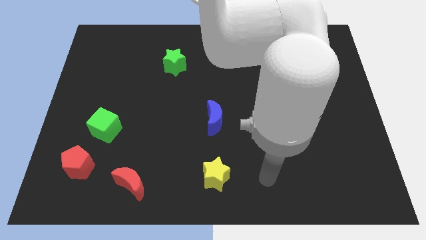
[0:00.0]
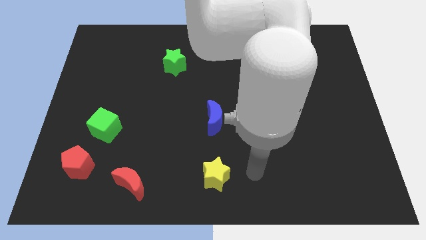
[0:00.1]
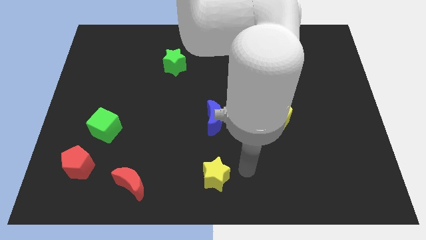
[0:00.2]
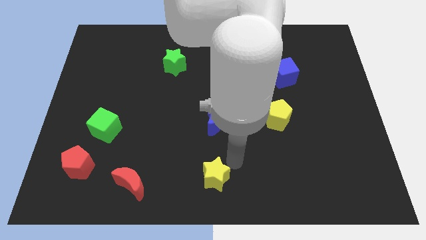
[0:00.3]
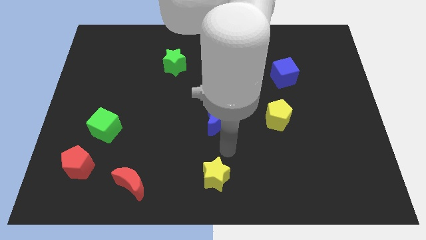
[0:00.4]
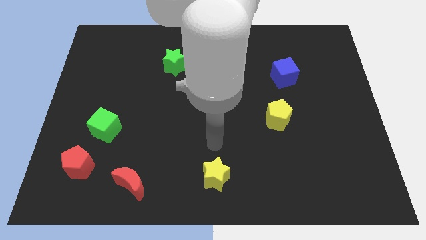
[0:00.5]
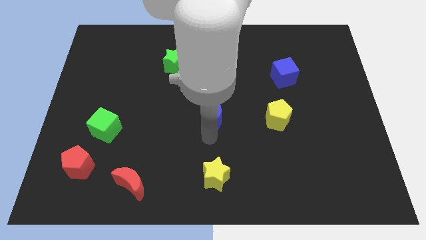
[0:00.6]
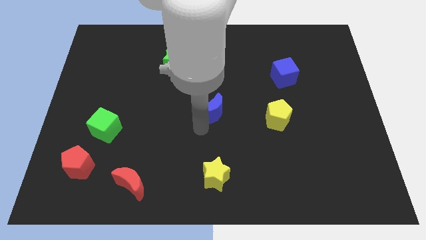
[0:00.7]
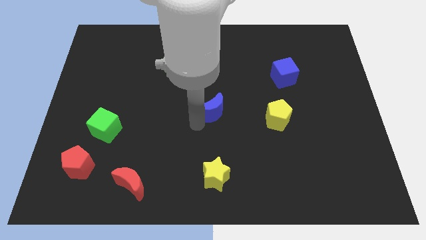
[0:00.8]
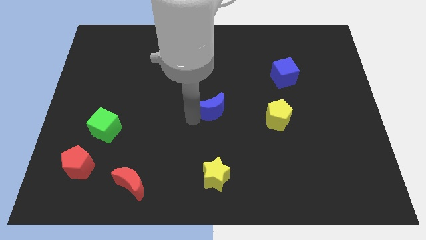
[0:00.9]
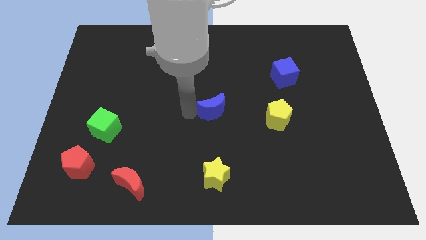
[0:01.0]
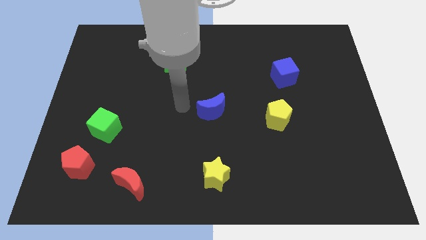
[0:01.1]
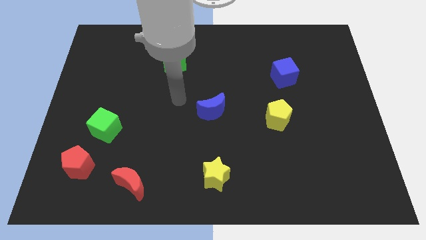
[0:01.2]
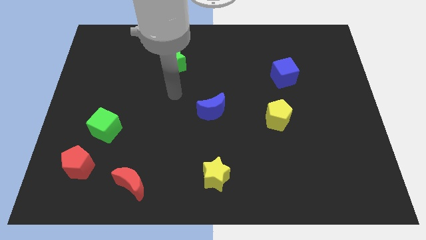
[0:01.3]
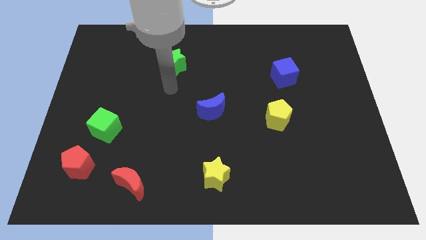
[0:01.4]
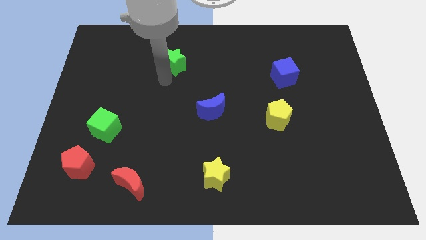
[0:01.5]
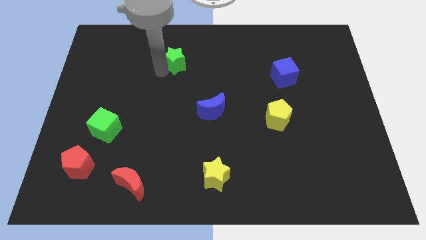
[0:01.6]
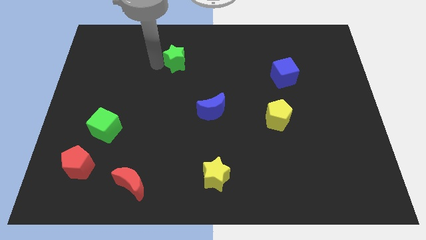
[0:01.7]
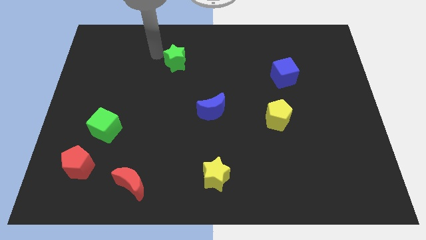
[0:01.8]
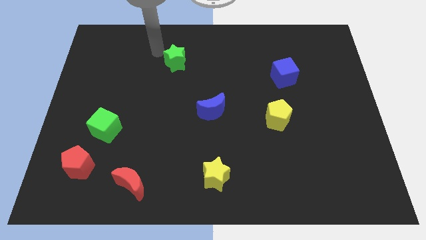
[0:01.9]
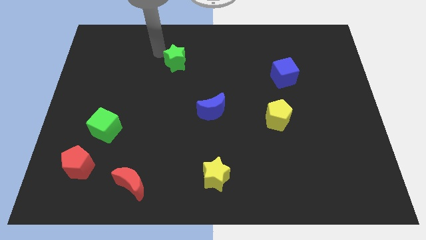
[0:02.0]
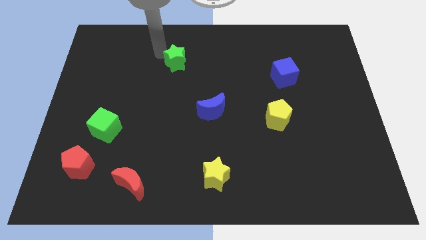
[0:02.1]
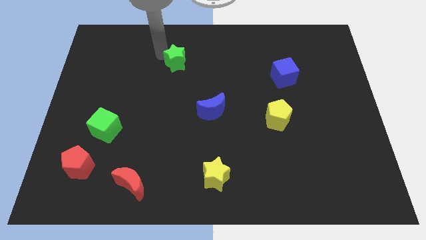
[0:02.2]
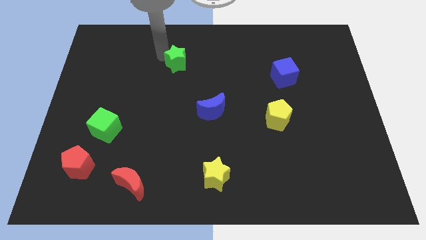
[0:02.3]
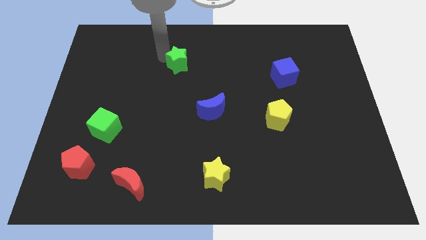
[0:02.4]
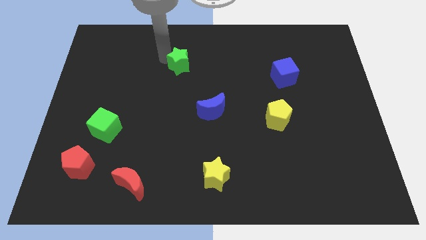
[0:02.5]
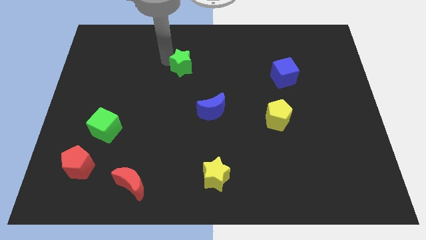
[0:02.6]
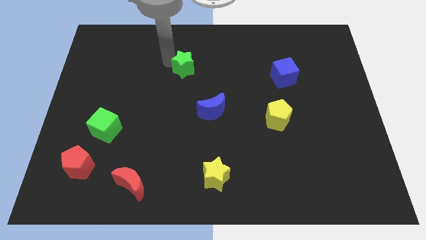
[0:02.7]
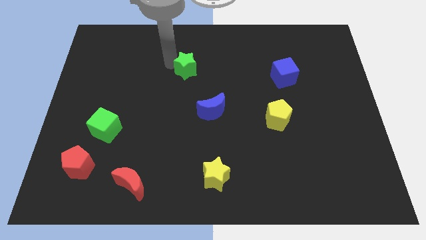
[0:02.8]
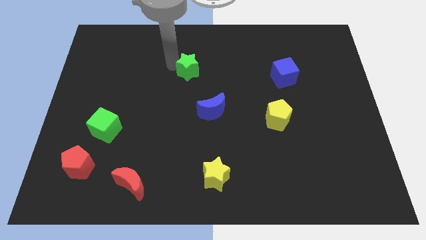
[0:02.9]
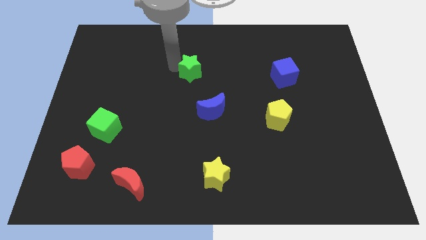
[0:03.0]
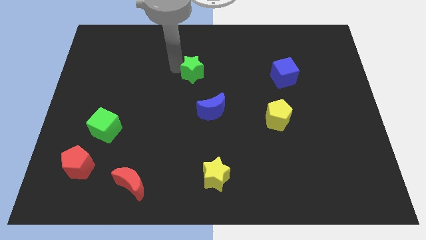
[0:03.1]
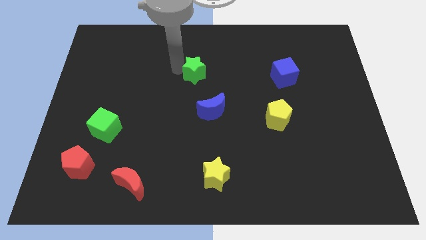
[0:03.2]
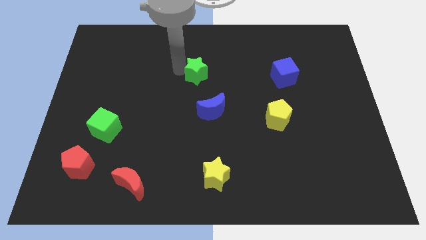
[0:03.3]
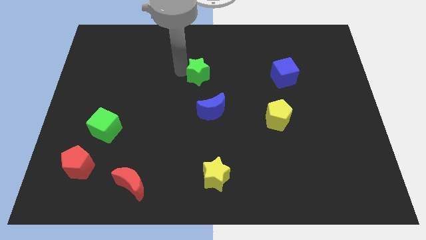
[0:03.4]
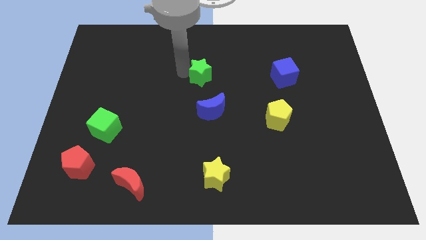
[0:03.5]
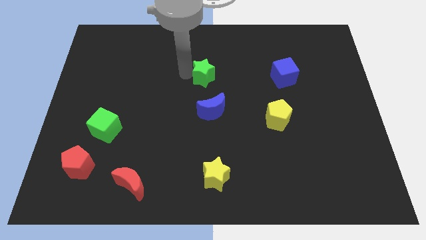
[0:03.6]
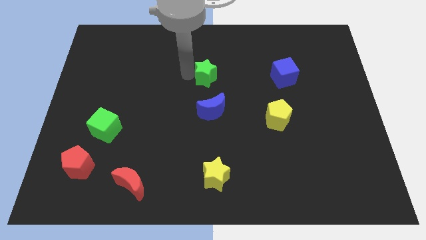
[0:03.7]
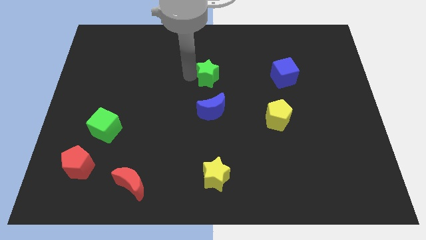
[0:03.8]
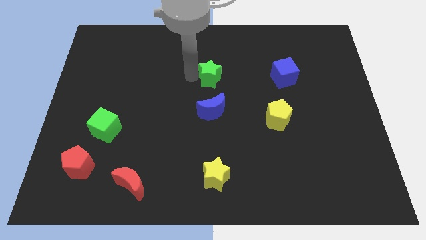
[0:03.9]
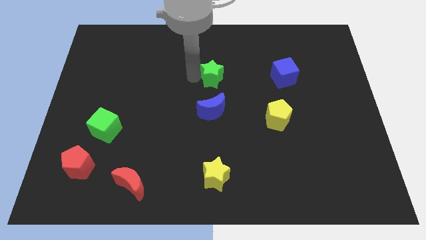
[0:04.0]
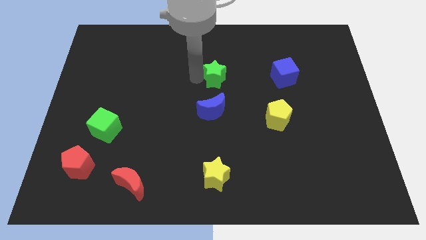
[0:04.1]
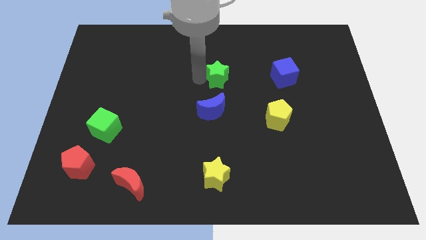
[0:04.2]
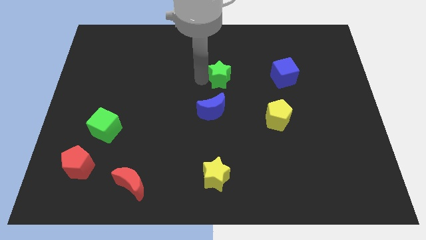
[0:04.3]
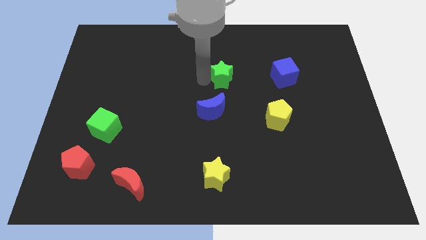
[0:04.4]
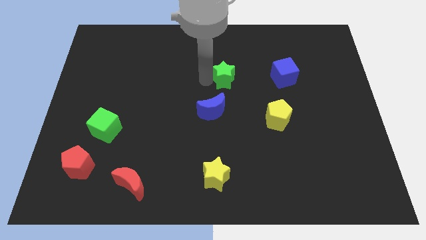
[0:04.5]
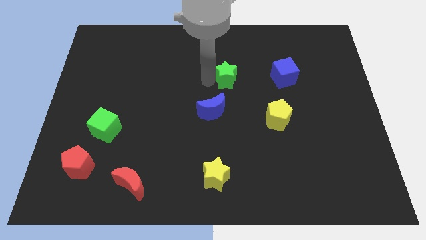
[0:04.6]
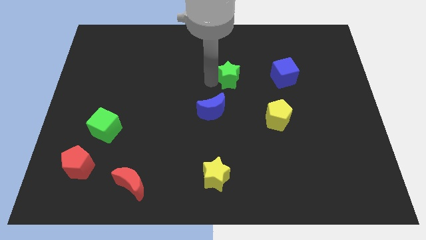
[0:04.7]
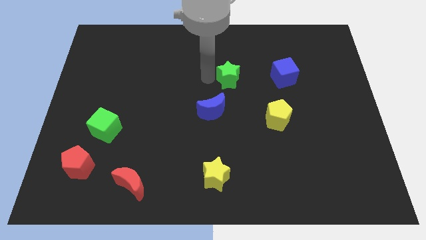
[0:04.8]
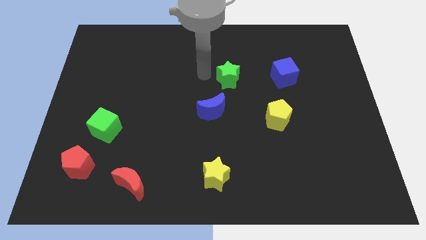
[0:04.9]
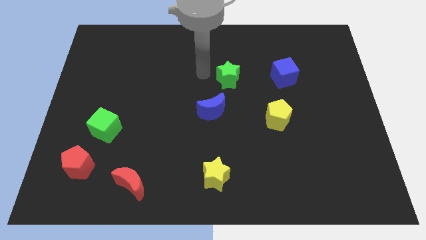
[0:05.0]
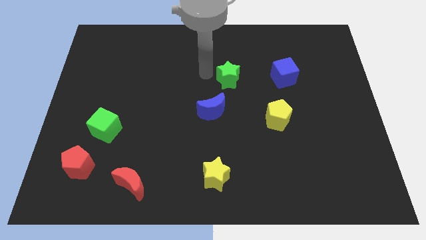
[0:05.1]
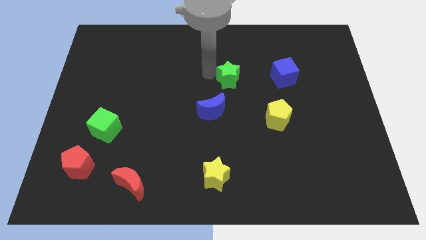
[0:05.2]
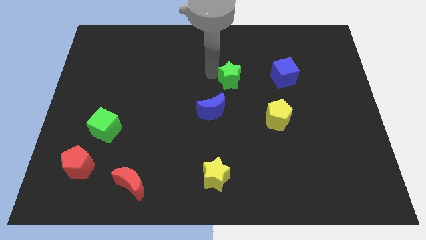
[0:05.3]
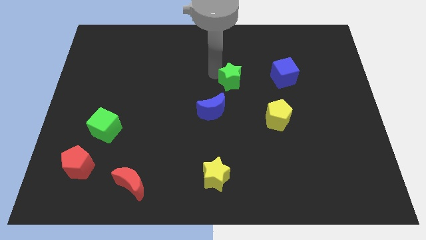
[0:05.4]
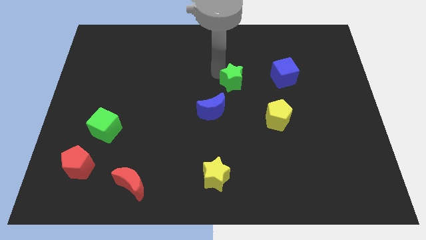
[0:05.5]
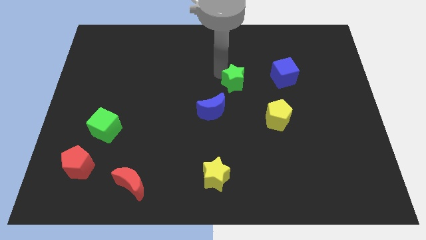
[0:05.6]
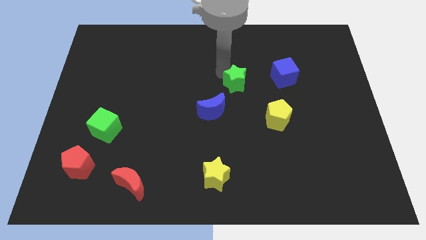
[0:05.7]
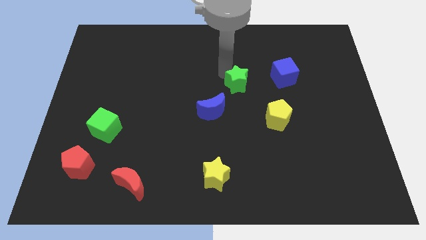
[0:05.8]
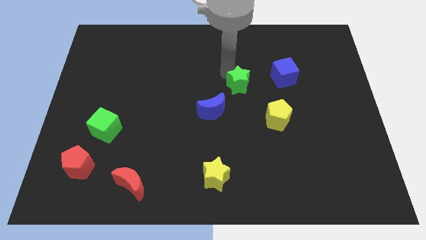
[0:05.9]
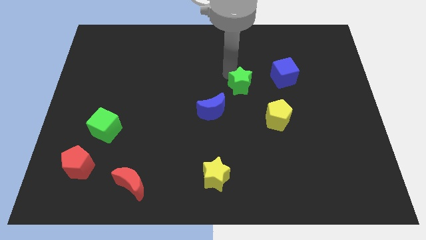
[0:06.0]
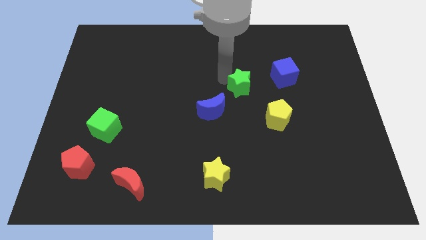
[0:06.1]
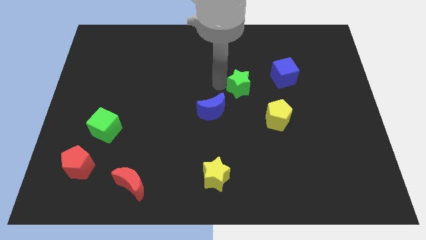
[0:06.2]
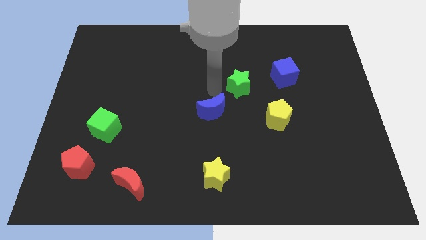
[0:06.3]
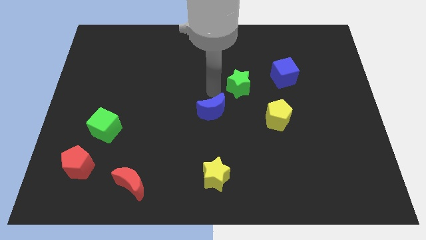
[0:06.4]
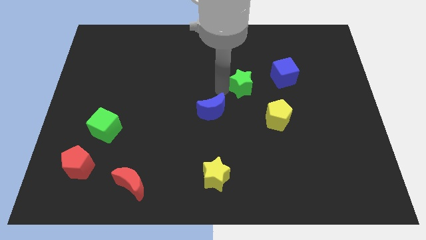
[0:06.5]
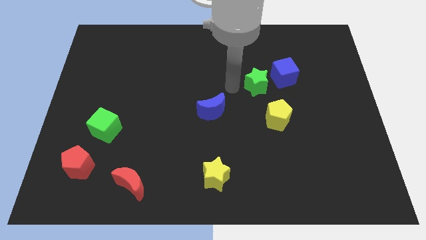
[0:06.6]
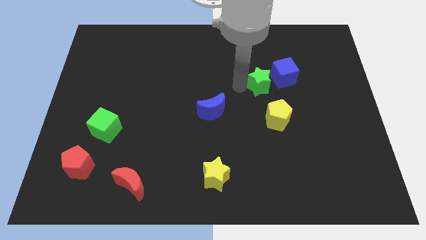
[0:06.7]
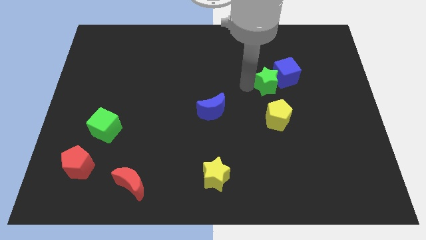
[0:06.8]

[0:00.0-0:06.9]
move the green star towards the blue cube

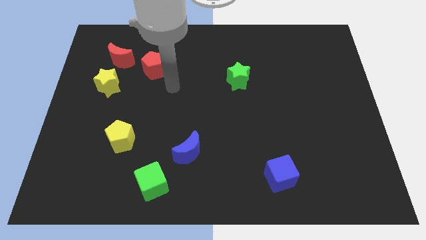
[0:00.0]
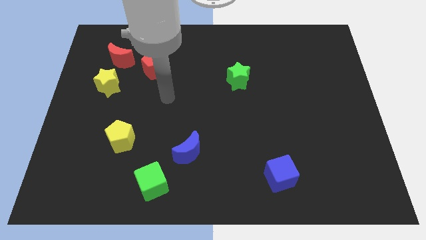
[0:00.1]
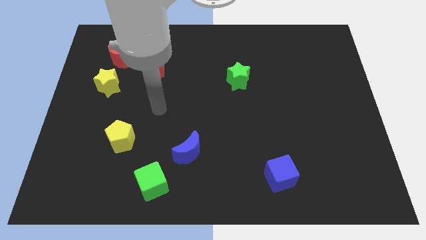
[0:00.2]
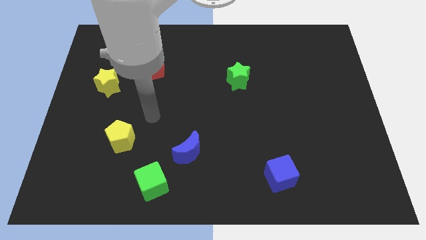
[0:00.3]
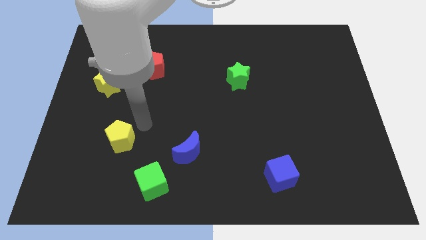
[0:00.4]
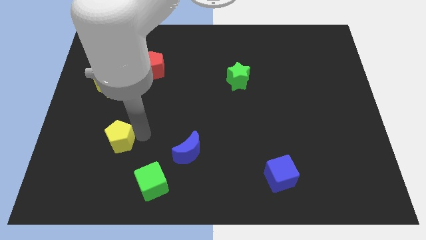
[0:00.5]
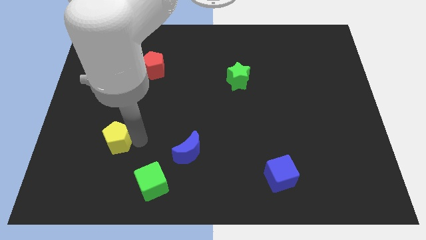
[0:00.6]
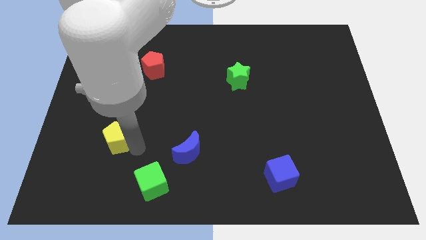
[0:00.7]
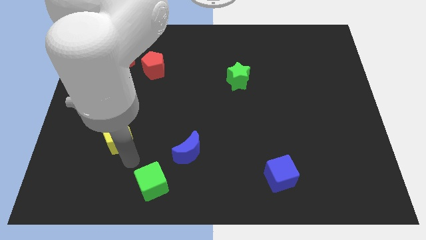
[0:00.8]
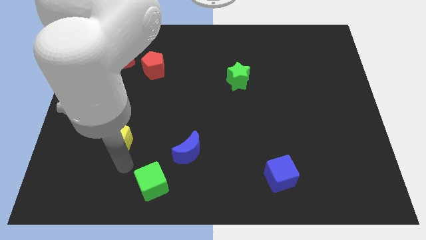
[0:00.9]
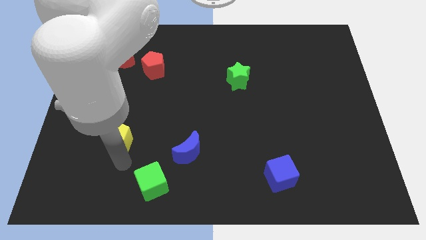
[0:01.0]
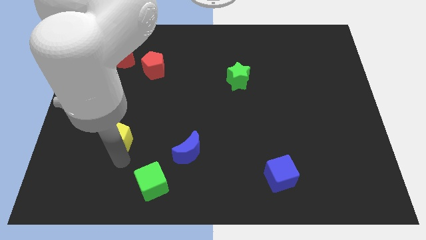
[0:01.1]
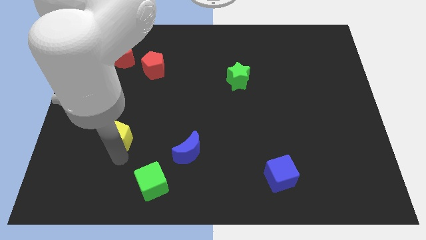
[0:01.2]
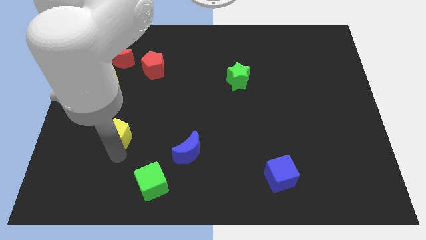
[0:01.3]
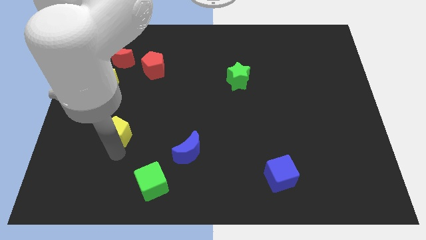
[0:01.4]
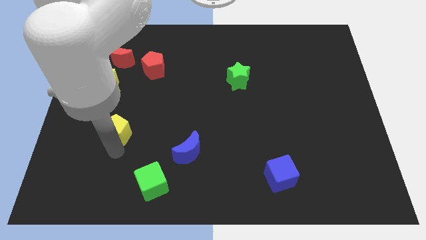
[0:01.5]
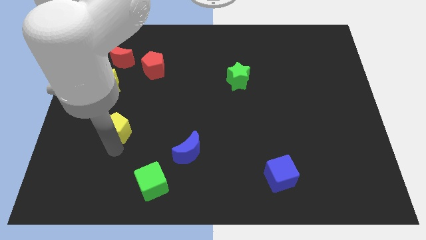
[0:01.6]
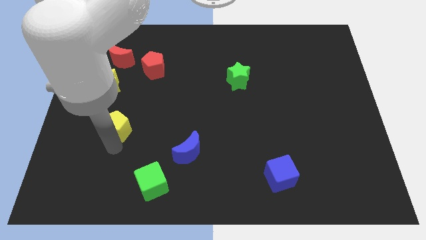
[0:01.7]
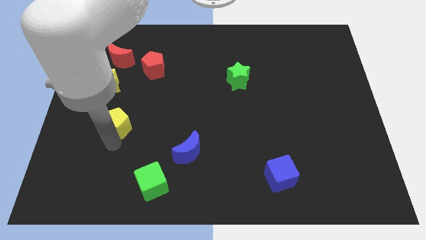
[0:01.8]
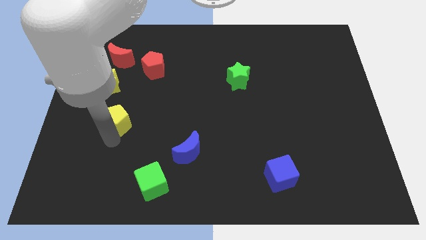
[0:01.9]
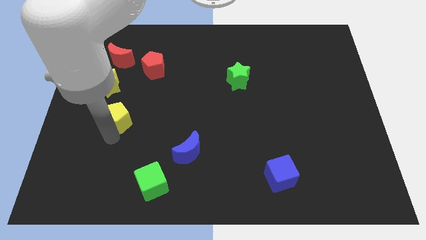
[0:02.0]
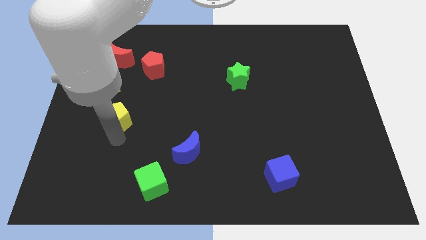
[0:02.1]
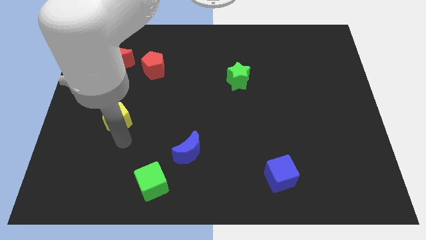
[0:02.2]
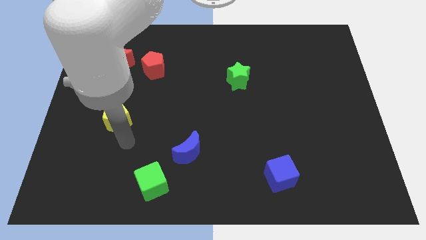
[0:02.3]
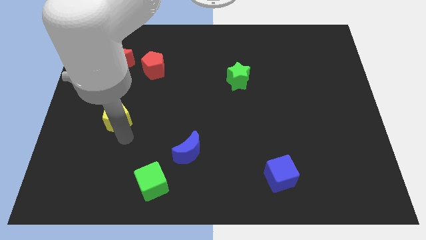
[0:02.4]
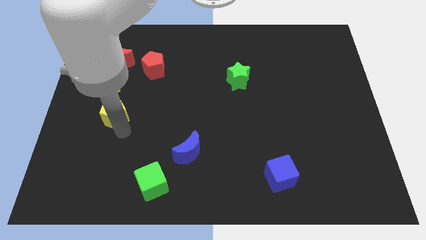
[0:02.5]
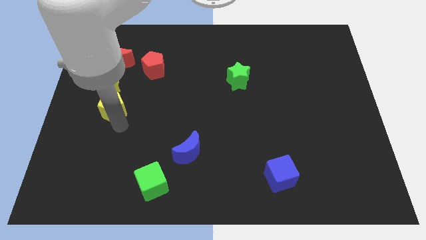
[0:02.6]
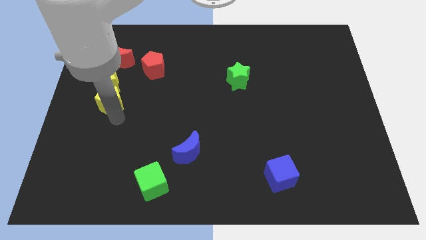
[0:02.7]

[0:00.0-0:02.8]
push the yellow pentagon close to the yellow star
